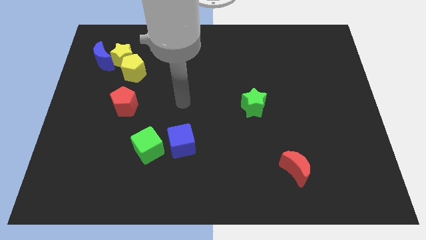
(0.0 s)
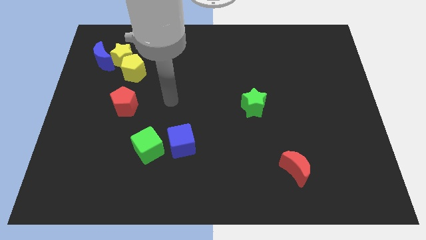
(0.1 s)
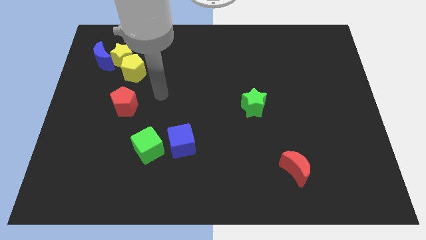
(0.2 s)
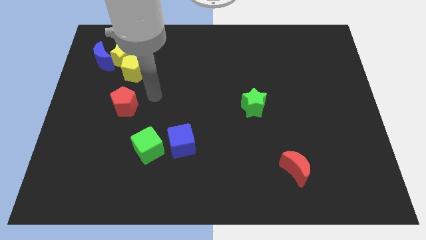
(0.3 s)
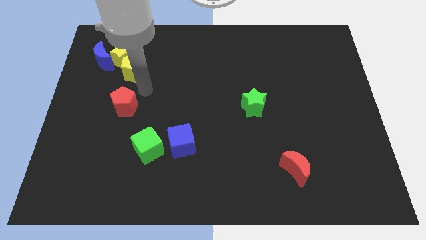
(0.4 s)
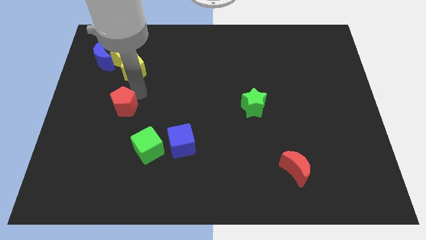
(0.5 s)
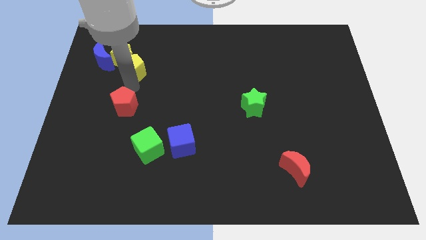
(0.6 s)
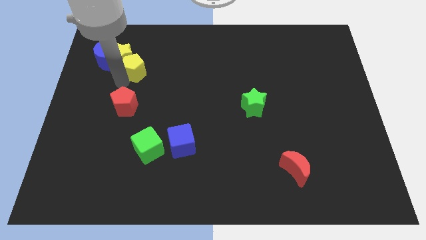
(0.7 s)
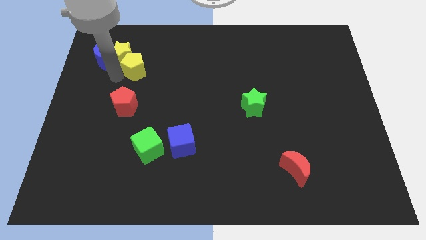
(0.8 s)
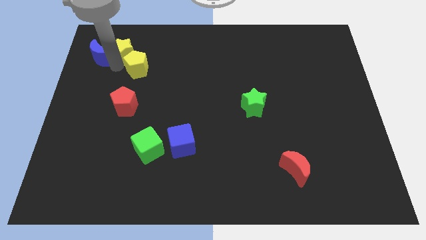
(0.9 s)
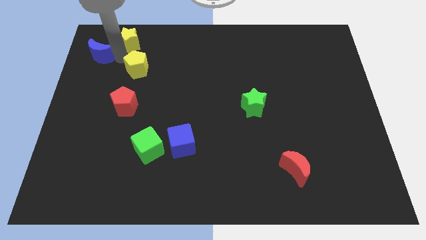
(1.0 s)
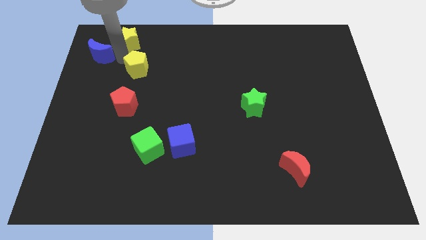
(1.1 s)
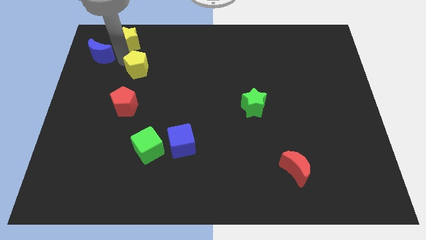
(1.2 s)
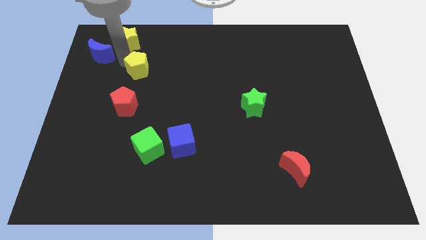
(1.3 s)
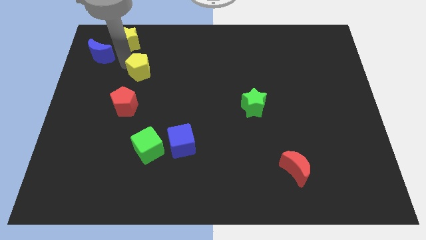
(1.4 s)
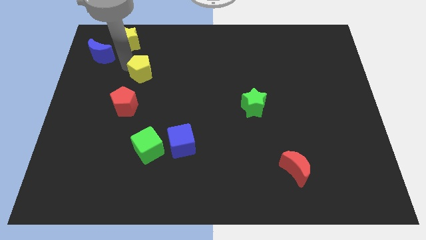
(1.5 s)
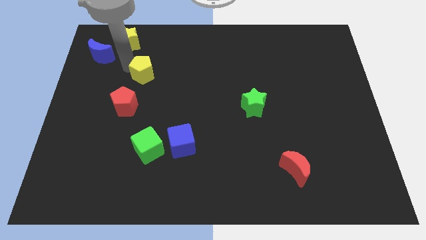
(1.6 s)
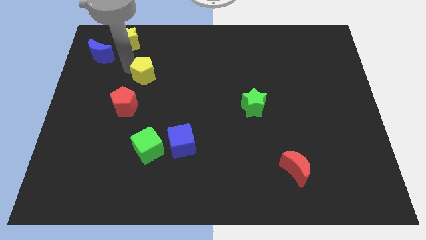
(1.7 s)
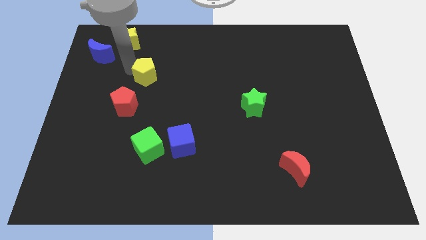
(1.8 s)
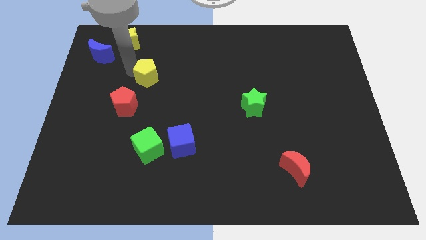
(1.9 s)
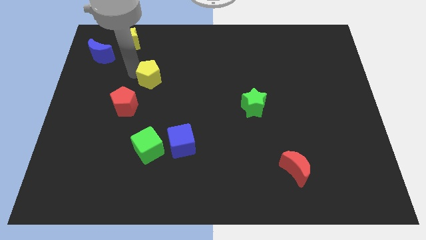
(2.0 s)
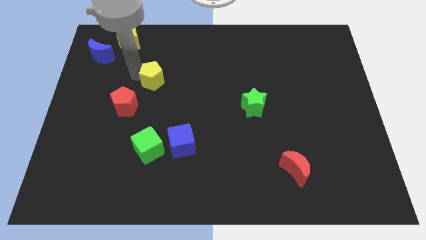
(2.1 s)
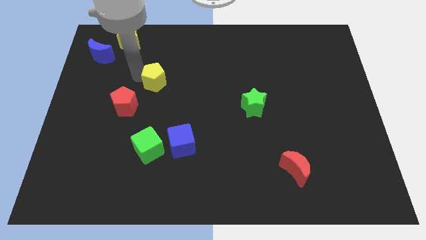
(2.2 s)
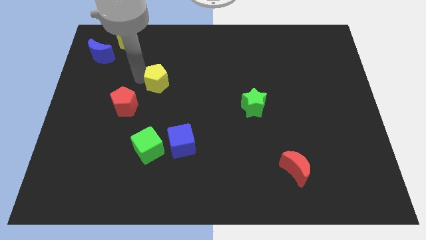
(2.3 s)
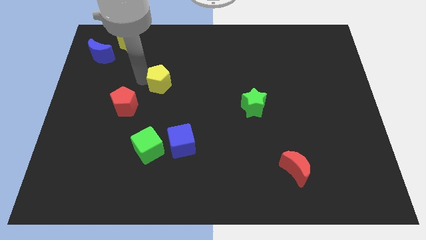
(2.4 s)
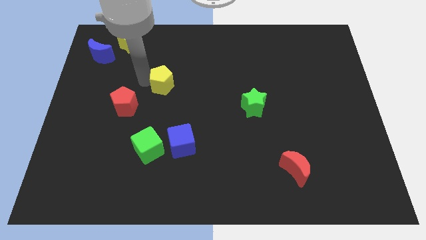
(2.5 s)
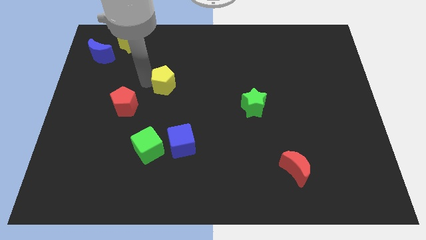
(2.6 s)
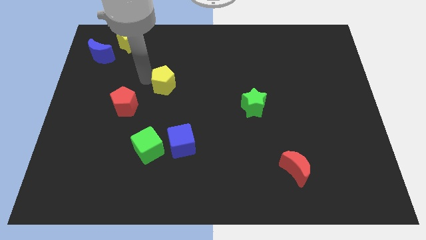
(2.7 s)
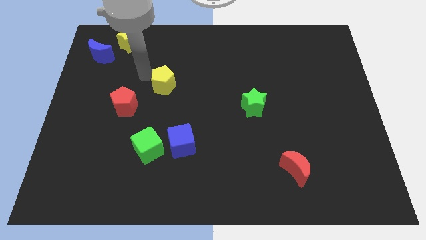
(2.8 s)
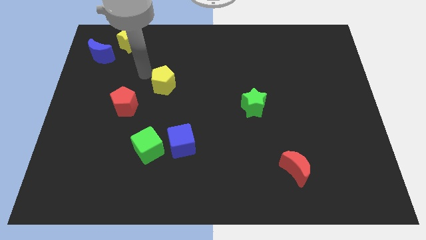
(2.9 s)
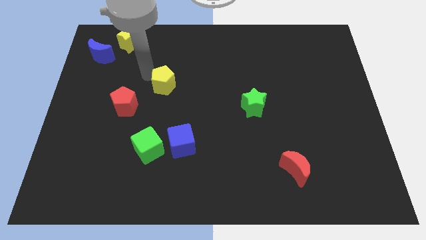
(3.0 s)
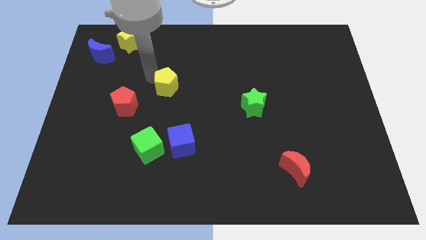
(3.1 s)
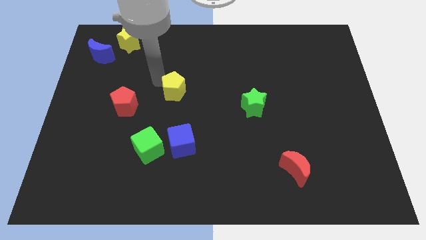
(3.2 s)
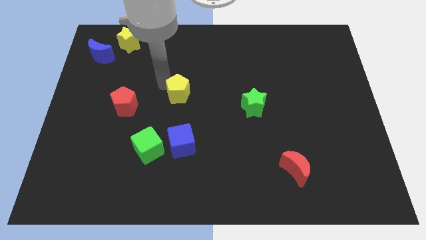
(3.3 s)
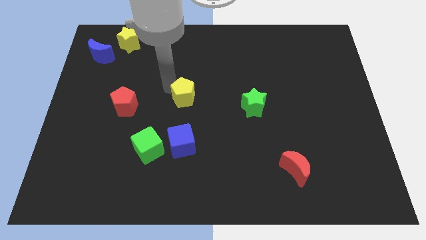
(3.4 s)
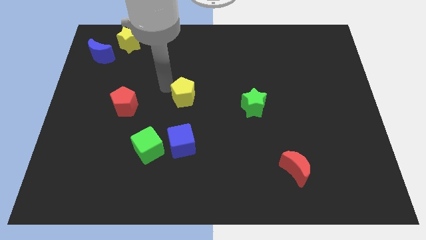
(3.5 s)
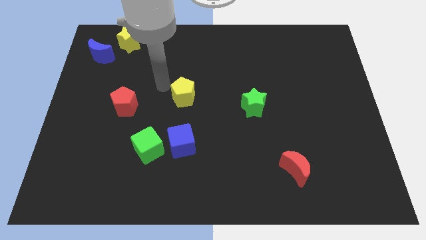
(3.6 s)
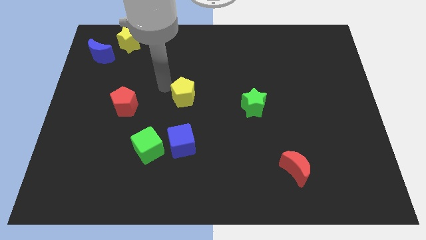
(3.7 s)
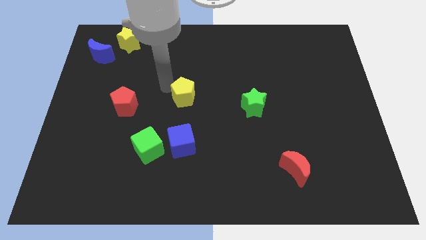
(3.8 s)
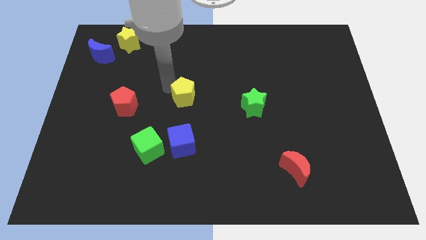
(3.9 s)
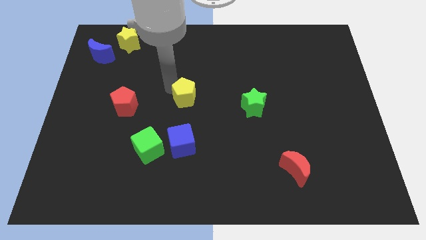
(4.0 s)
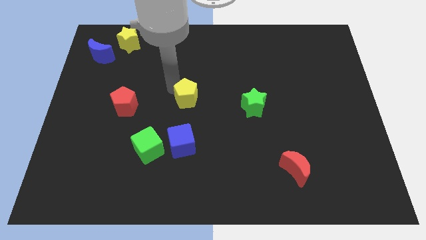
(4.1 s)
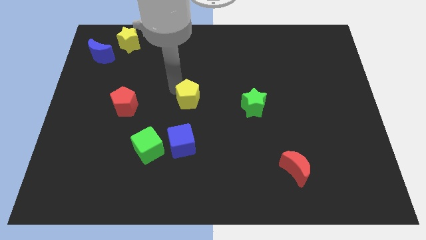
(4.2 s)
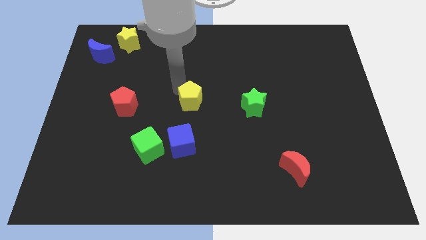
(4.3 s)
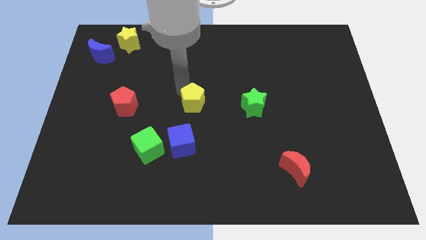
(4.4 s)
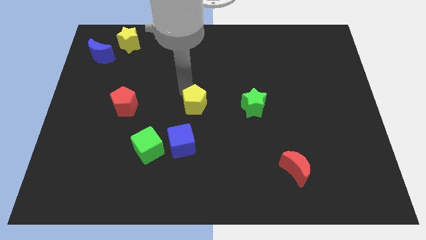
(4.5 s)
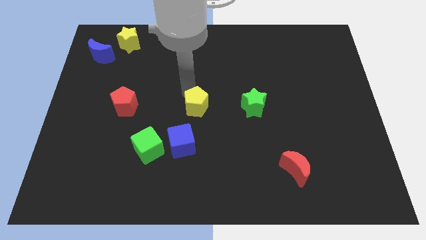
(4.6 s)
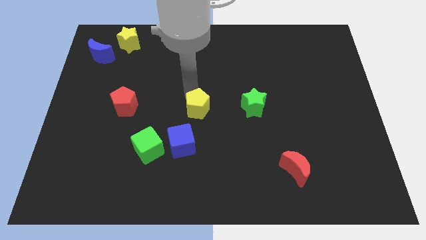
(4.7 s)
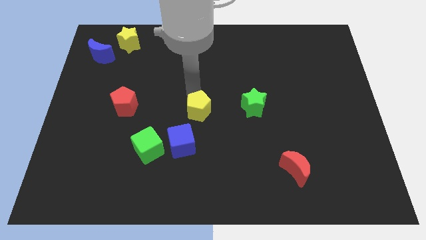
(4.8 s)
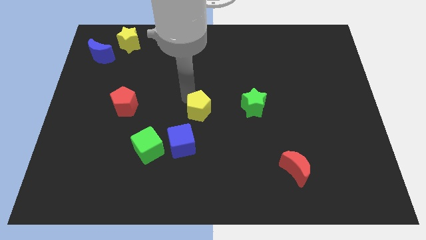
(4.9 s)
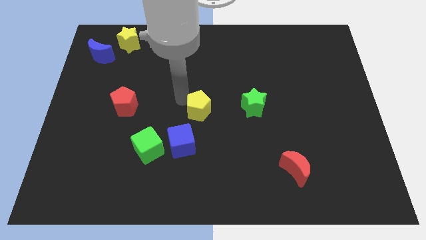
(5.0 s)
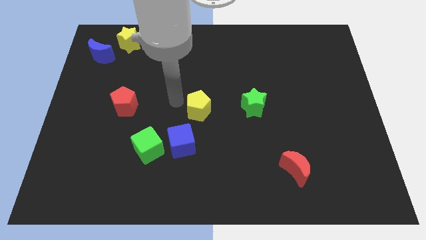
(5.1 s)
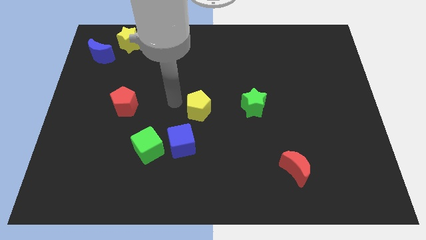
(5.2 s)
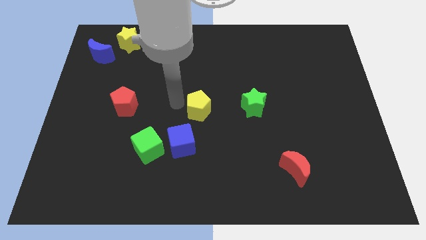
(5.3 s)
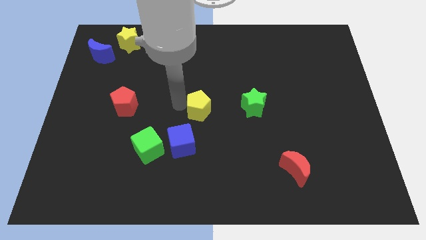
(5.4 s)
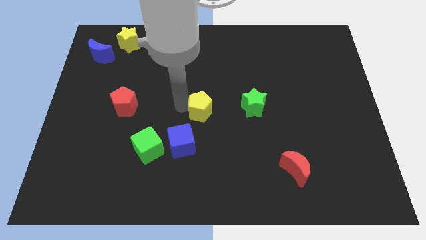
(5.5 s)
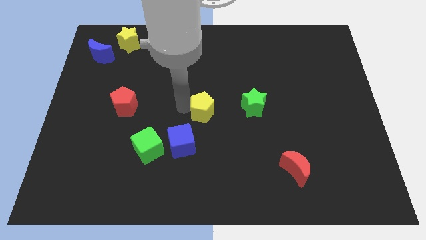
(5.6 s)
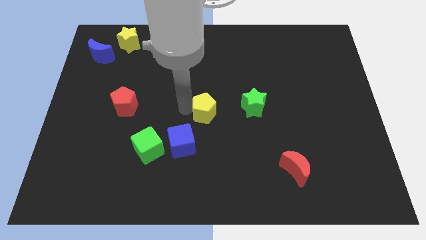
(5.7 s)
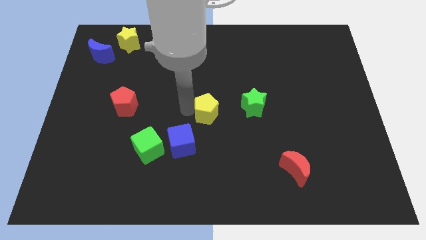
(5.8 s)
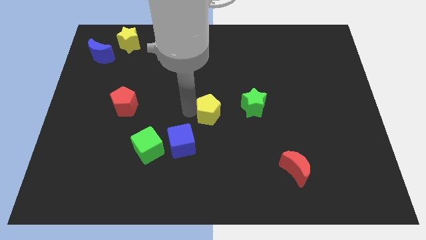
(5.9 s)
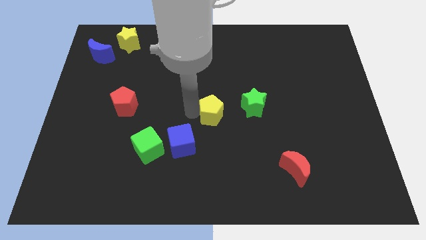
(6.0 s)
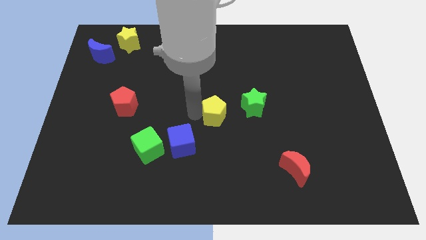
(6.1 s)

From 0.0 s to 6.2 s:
slide the yellow pentagon to the bottom left of the green star

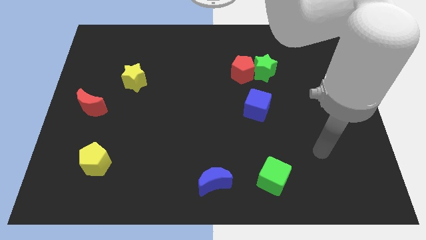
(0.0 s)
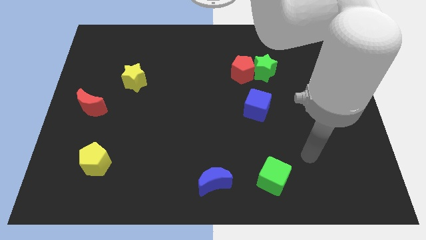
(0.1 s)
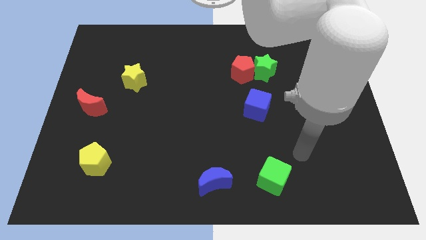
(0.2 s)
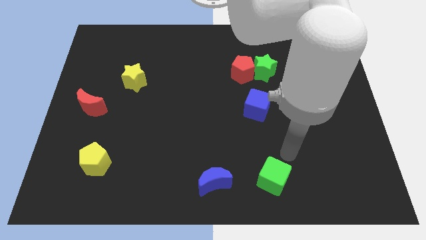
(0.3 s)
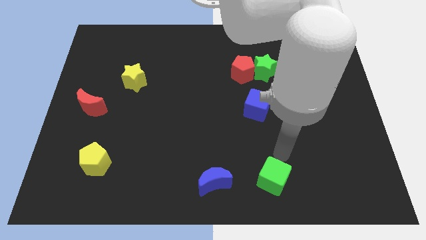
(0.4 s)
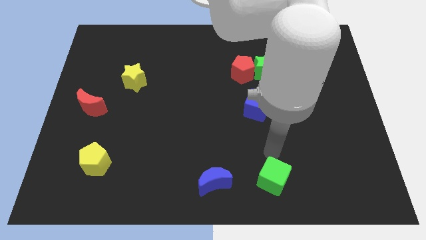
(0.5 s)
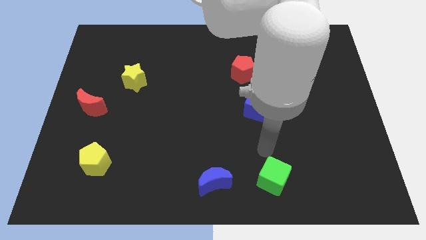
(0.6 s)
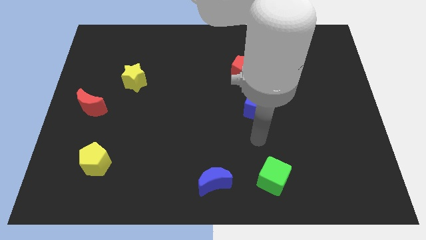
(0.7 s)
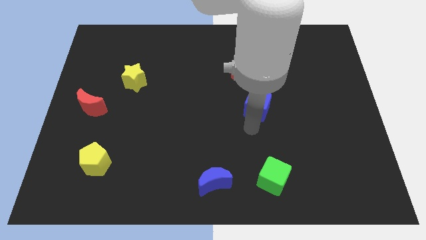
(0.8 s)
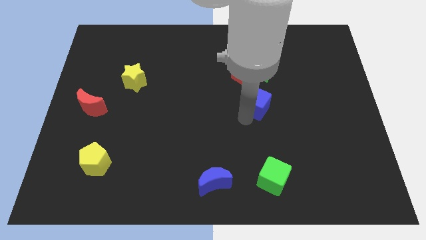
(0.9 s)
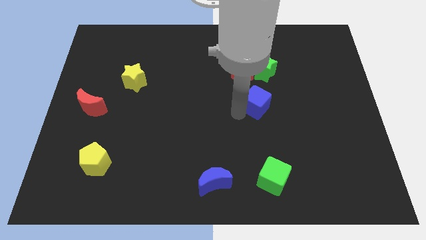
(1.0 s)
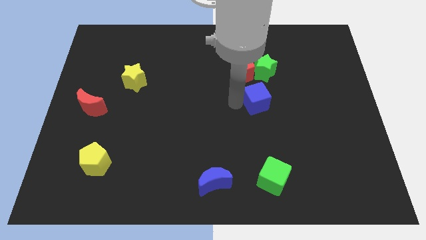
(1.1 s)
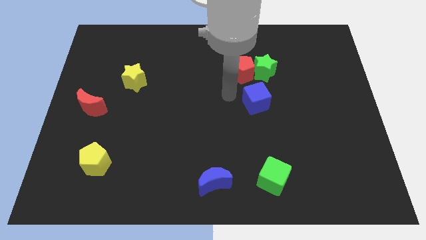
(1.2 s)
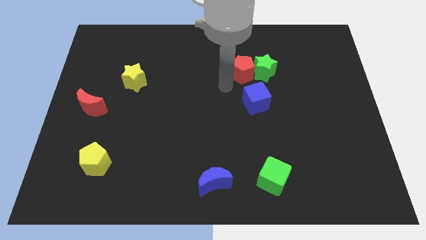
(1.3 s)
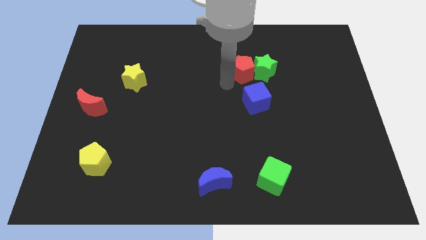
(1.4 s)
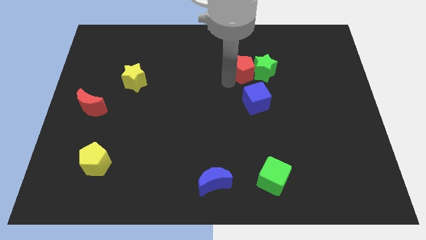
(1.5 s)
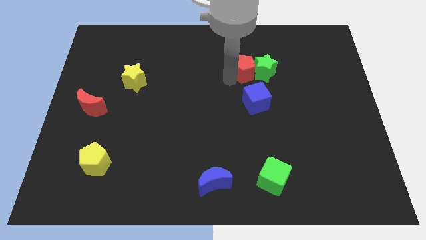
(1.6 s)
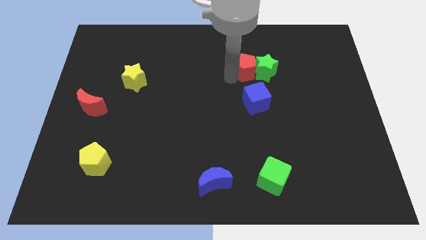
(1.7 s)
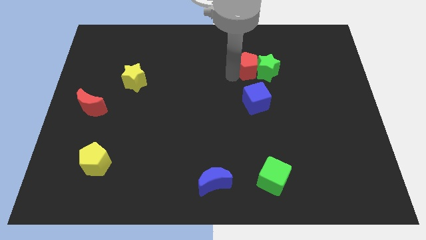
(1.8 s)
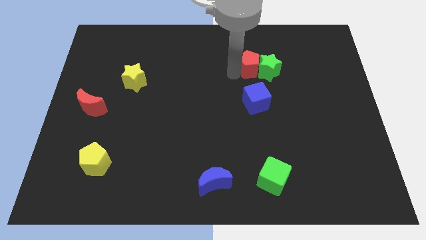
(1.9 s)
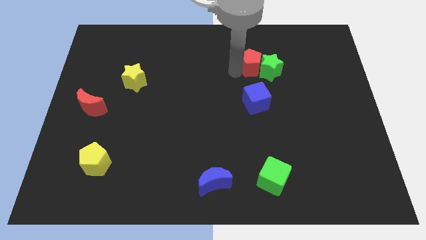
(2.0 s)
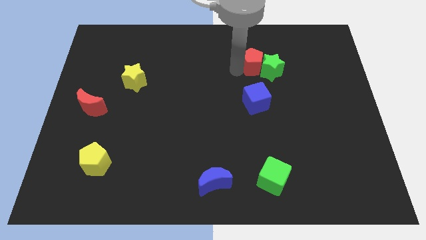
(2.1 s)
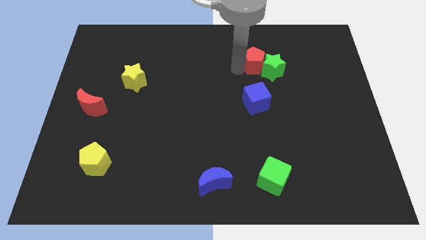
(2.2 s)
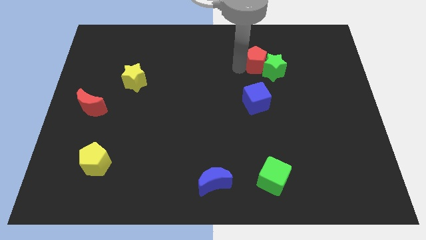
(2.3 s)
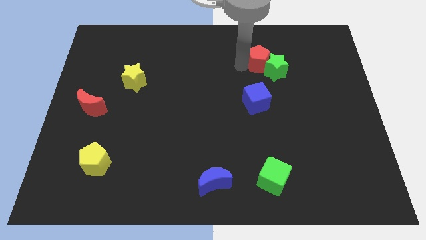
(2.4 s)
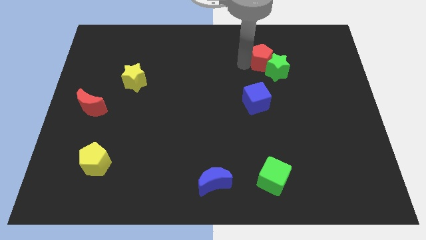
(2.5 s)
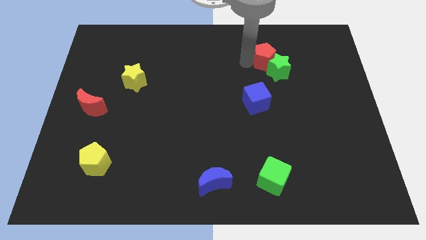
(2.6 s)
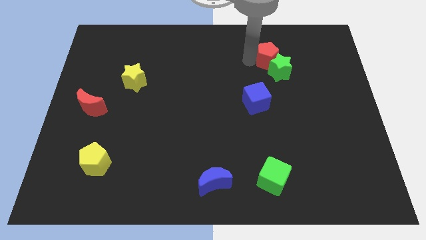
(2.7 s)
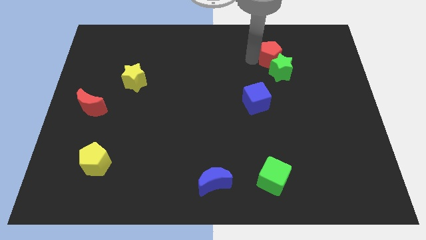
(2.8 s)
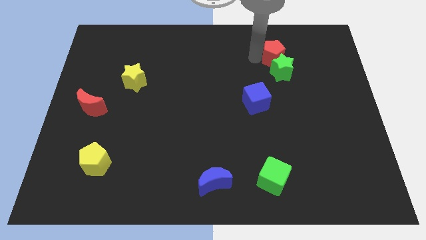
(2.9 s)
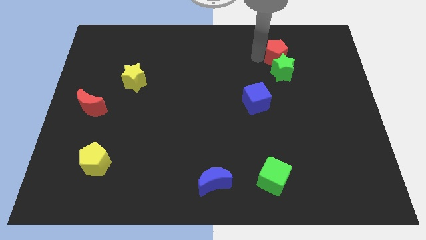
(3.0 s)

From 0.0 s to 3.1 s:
put the red pentagon diagonally up and to the right of the green star
